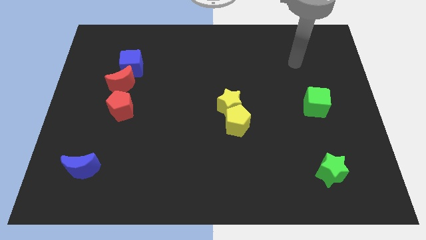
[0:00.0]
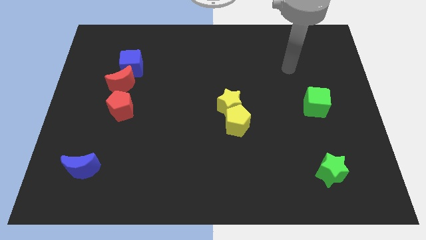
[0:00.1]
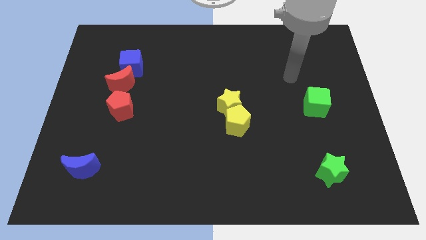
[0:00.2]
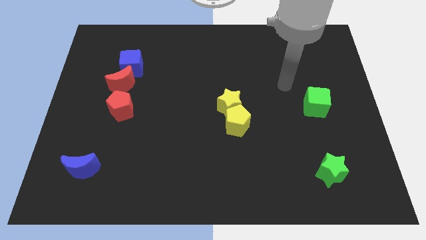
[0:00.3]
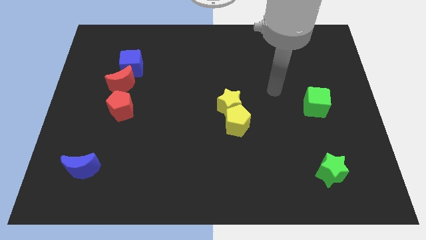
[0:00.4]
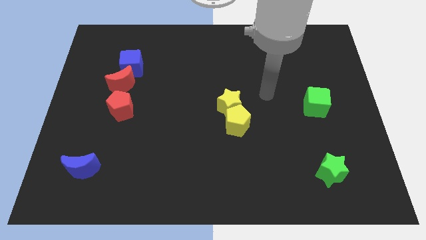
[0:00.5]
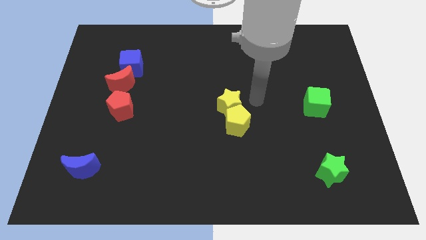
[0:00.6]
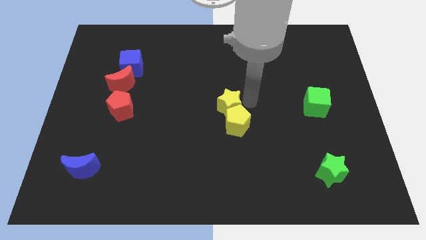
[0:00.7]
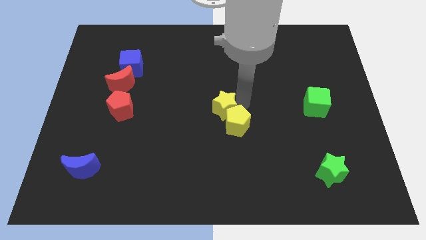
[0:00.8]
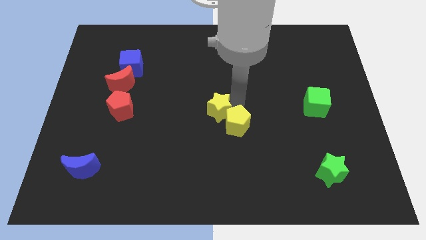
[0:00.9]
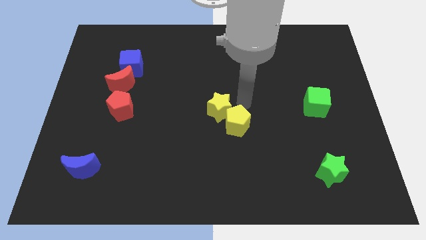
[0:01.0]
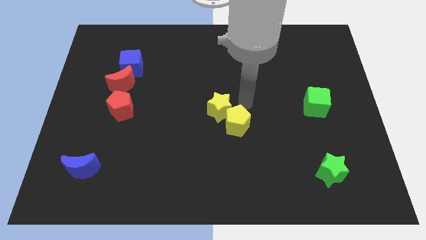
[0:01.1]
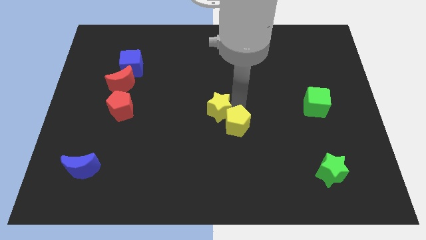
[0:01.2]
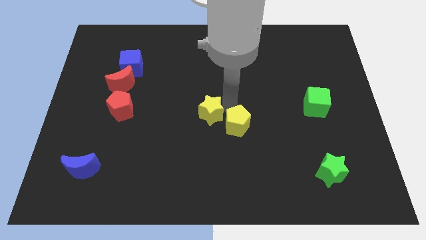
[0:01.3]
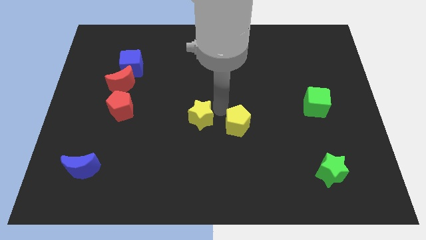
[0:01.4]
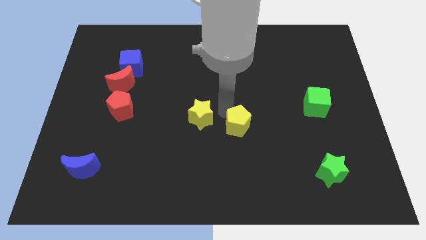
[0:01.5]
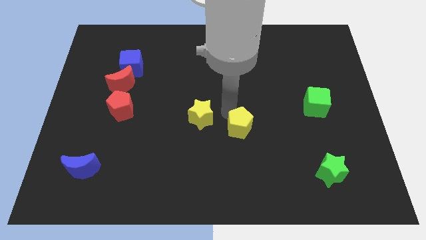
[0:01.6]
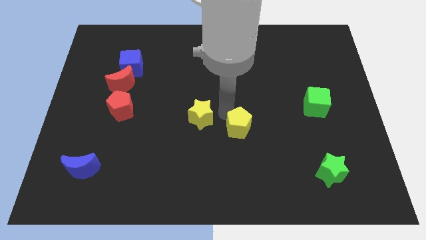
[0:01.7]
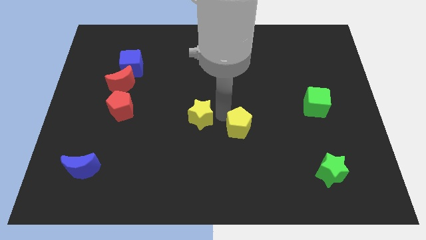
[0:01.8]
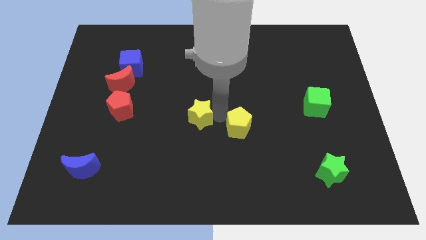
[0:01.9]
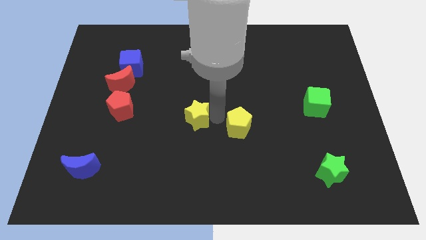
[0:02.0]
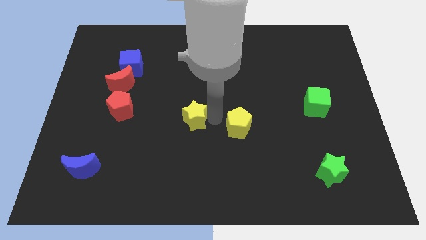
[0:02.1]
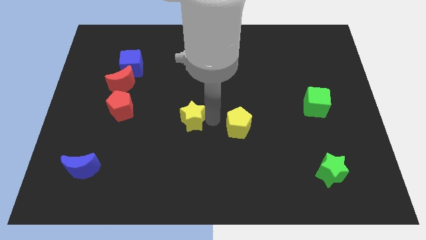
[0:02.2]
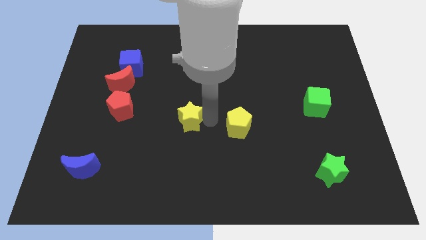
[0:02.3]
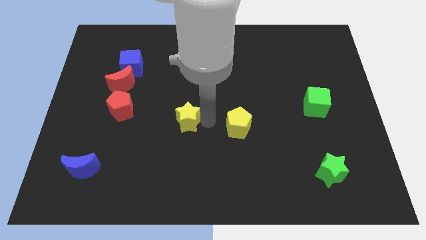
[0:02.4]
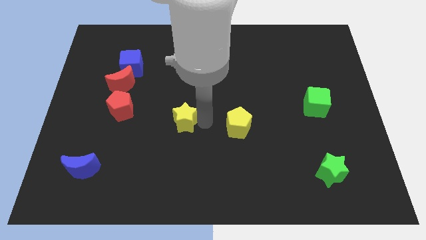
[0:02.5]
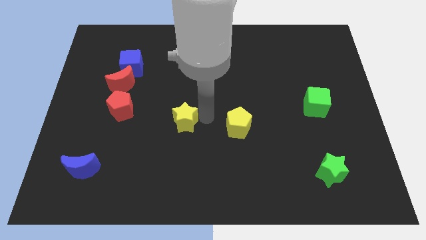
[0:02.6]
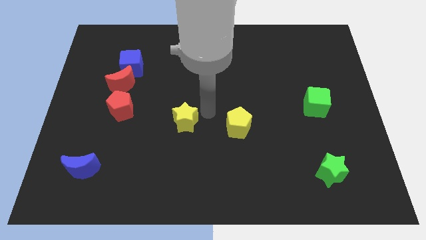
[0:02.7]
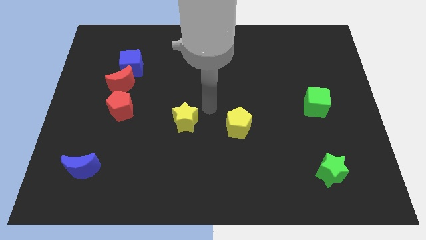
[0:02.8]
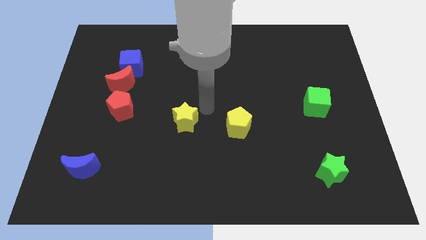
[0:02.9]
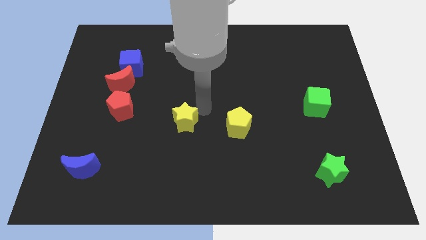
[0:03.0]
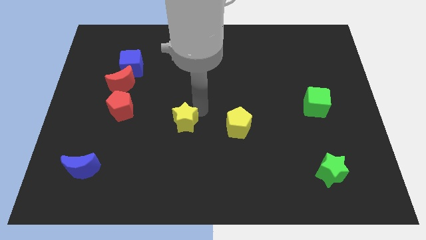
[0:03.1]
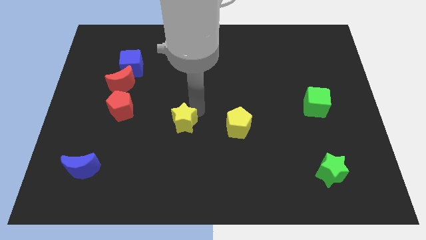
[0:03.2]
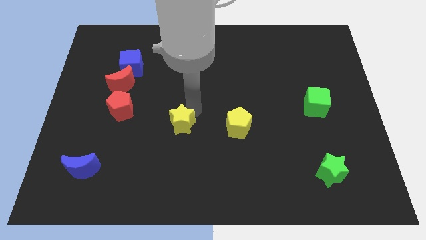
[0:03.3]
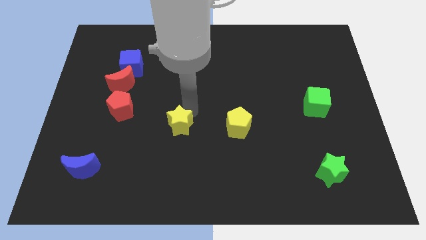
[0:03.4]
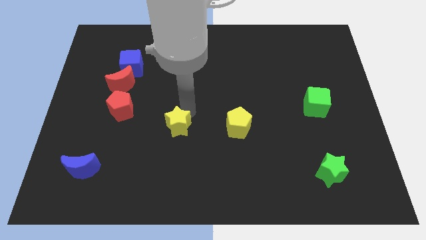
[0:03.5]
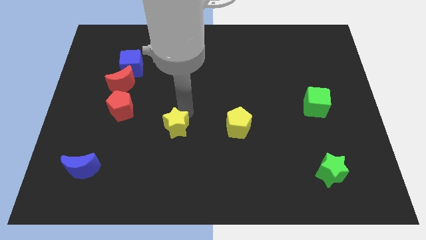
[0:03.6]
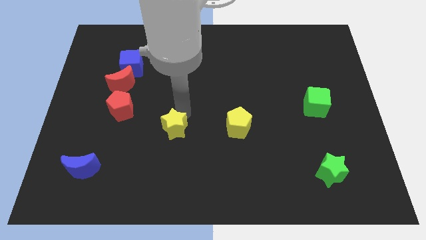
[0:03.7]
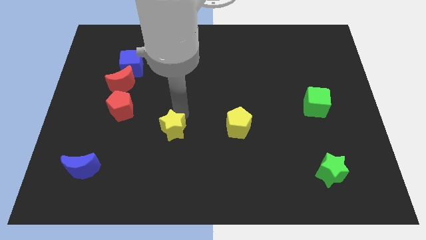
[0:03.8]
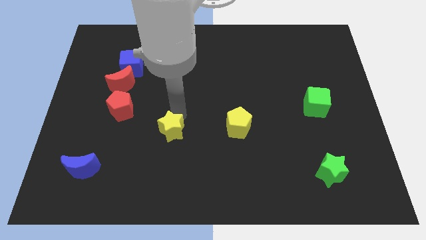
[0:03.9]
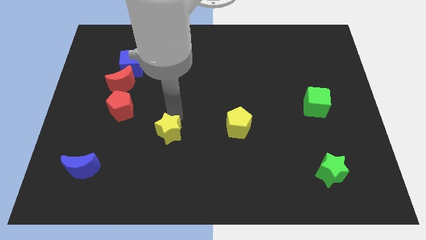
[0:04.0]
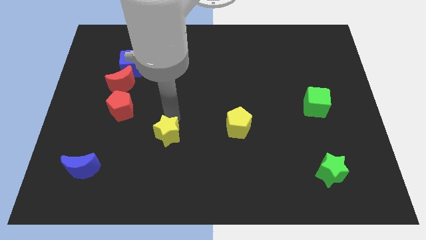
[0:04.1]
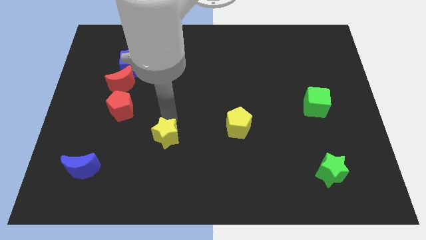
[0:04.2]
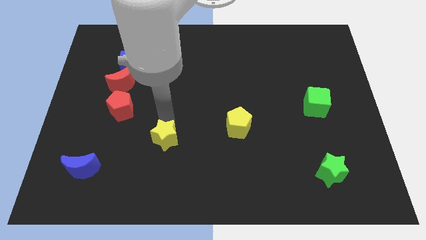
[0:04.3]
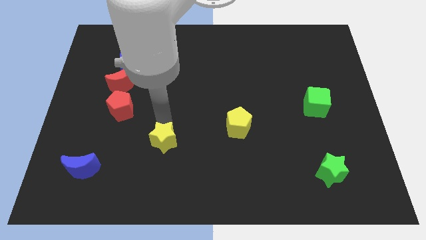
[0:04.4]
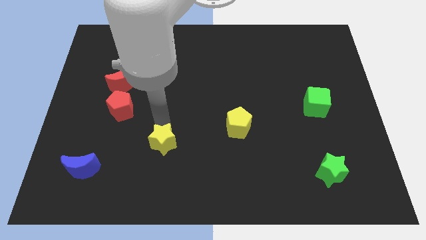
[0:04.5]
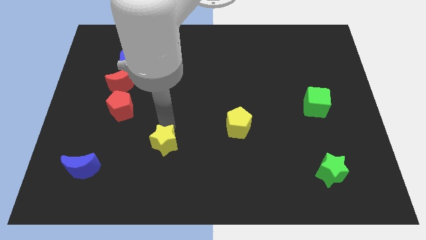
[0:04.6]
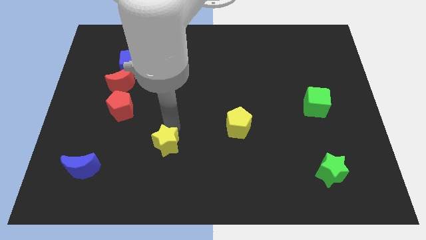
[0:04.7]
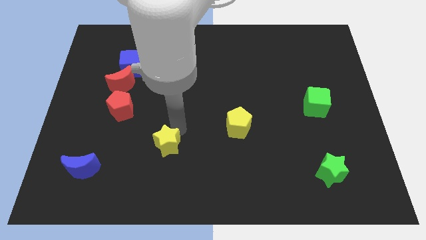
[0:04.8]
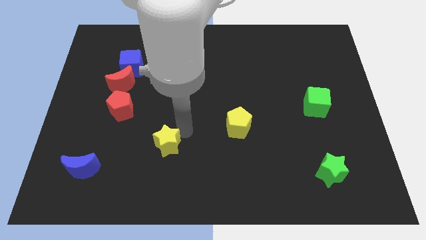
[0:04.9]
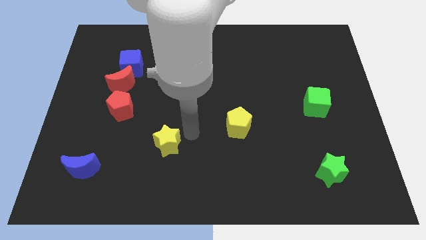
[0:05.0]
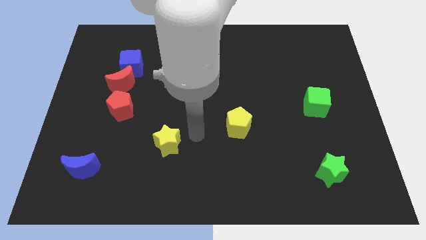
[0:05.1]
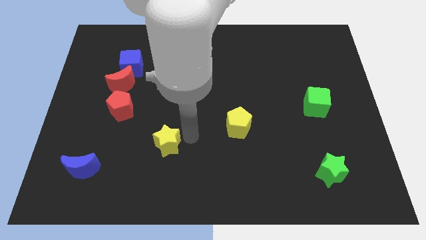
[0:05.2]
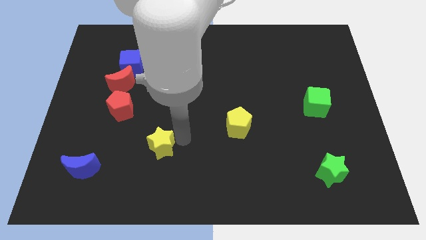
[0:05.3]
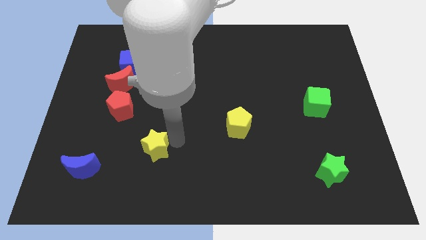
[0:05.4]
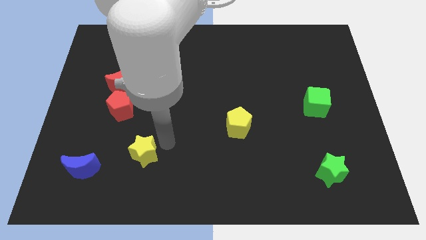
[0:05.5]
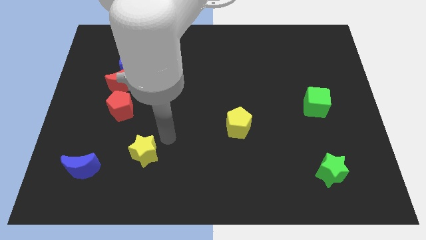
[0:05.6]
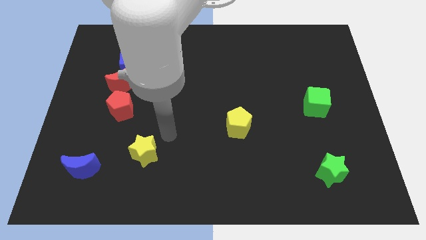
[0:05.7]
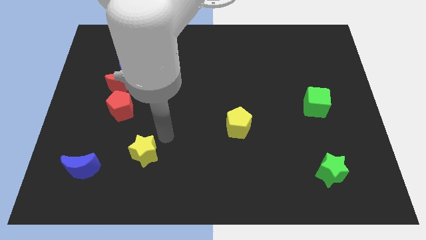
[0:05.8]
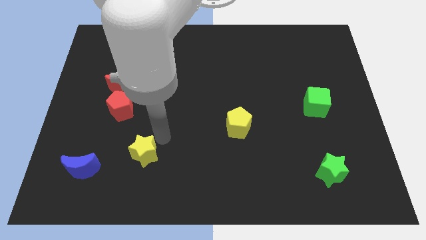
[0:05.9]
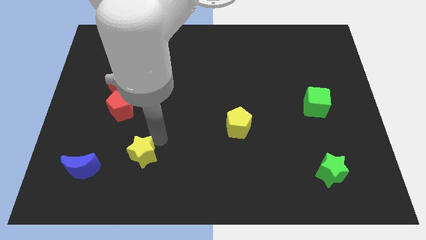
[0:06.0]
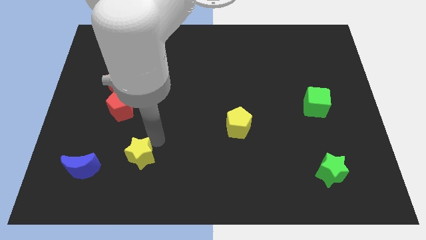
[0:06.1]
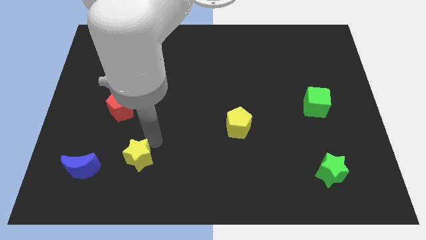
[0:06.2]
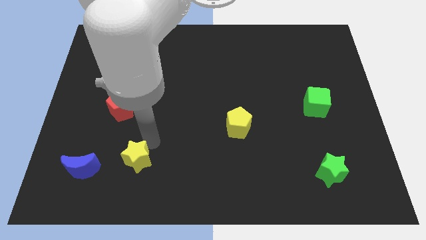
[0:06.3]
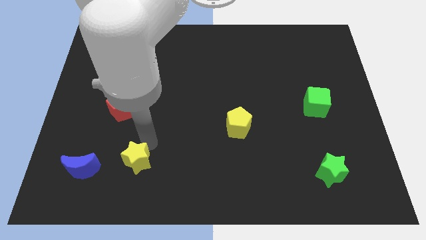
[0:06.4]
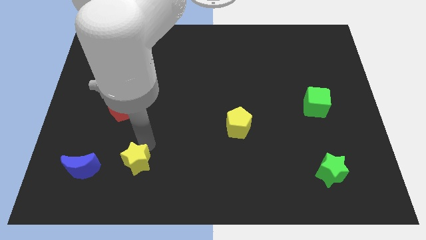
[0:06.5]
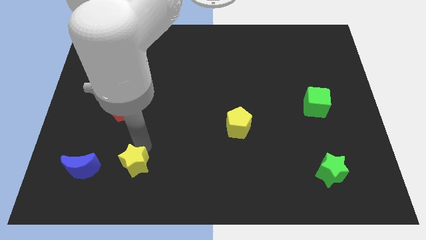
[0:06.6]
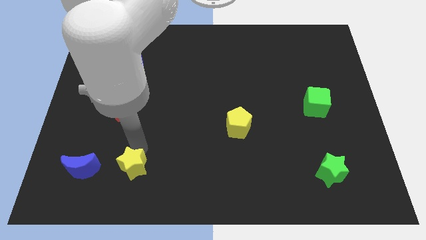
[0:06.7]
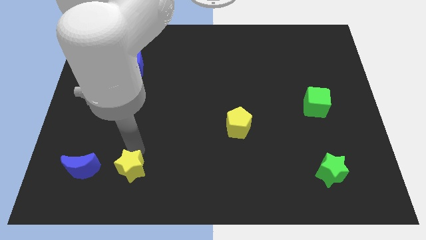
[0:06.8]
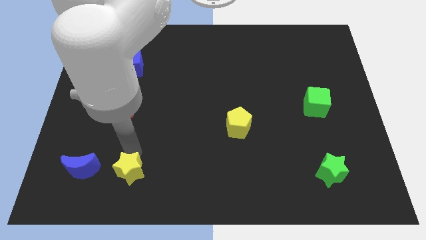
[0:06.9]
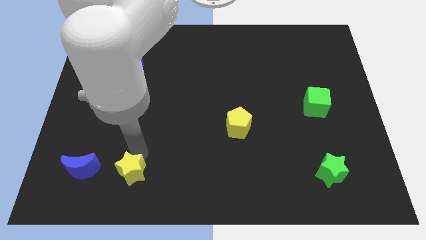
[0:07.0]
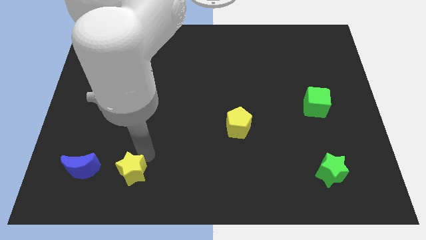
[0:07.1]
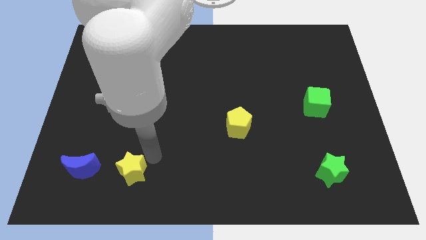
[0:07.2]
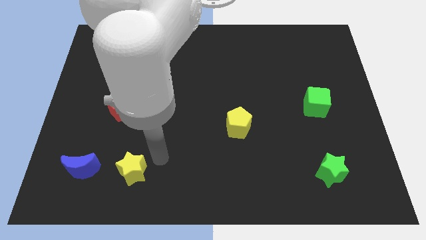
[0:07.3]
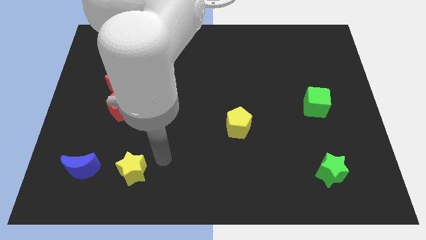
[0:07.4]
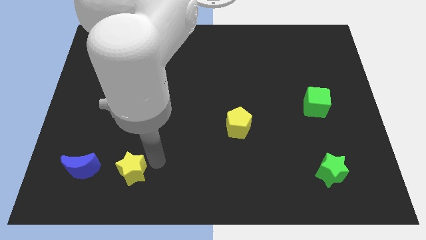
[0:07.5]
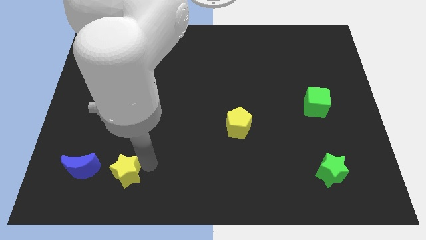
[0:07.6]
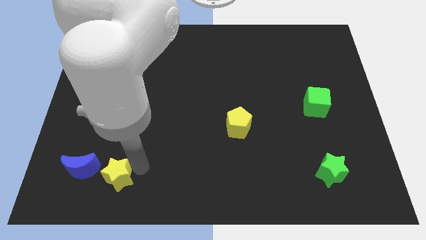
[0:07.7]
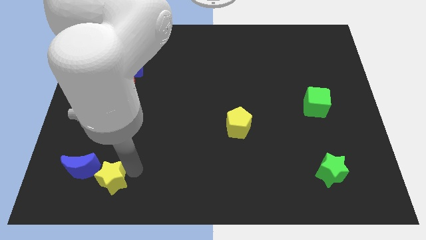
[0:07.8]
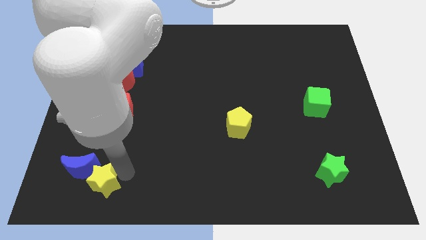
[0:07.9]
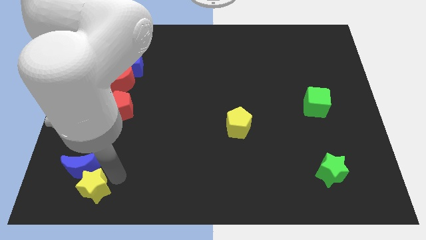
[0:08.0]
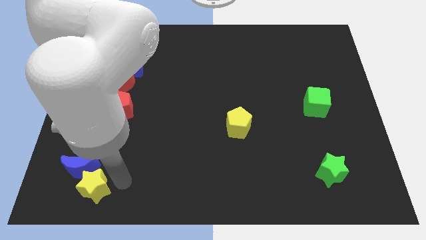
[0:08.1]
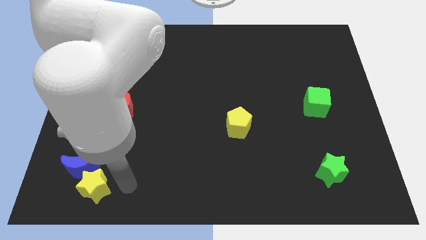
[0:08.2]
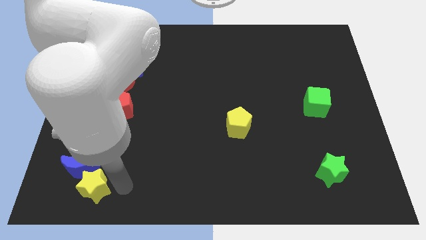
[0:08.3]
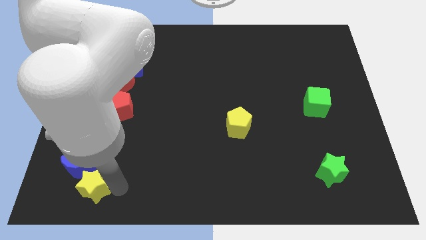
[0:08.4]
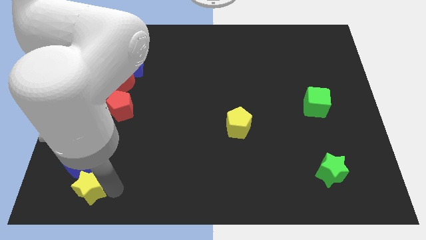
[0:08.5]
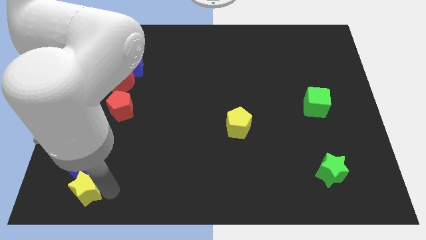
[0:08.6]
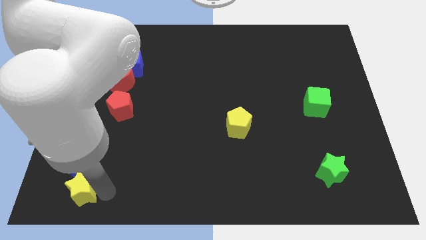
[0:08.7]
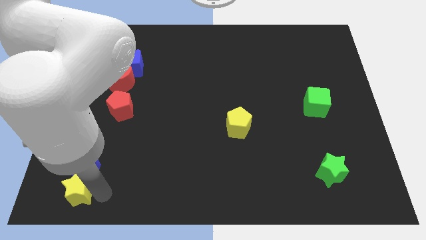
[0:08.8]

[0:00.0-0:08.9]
slide the yellow star to the bottom left corner
